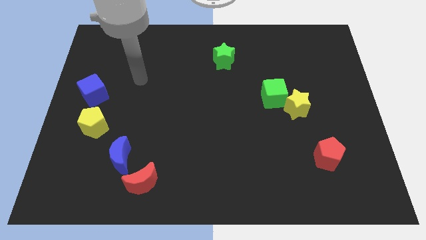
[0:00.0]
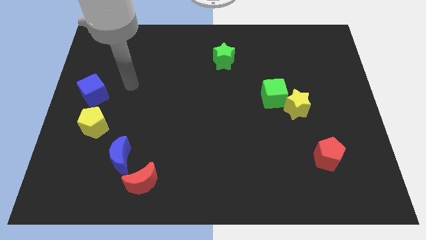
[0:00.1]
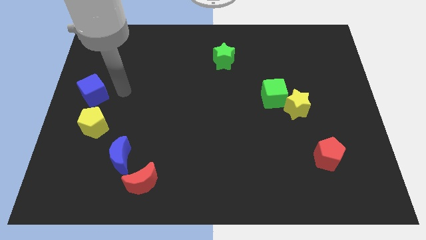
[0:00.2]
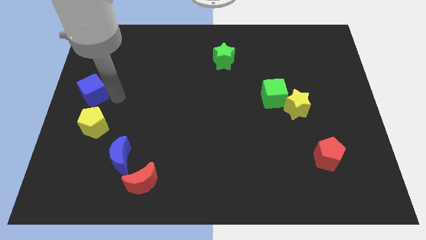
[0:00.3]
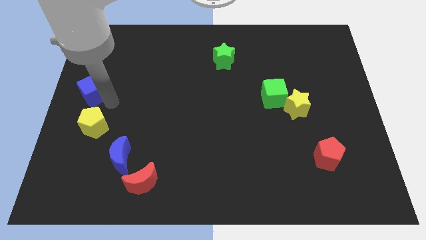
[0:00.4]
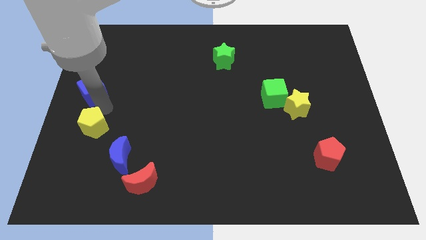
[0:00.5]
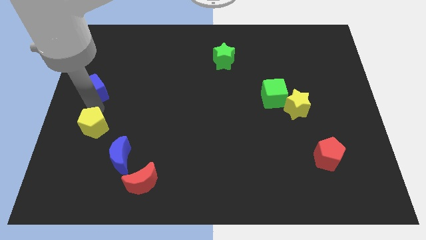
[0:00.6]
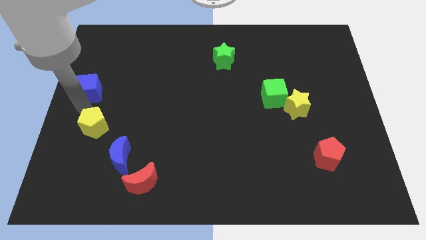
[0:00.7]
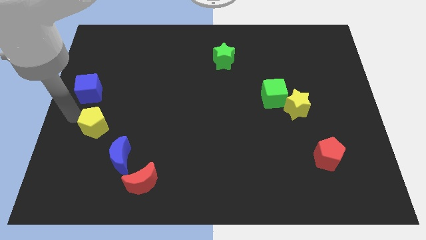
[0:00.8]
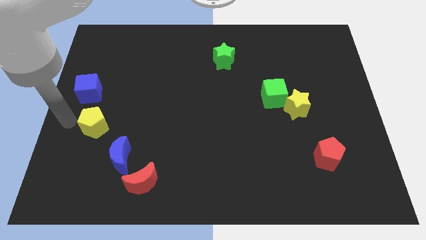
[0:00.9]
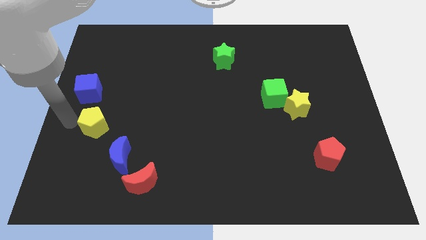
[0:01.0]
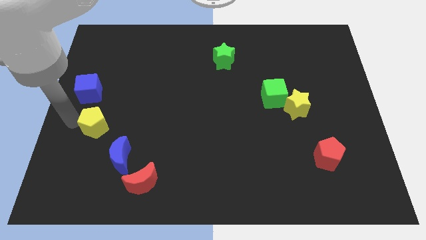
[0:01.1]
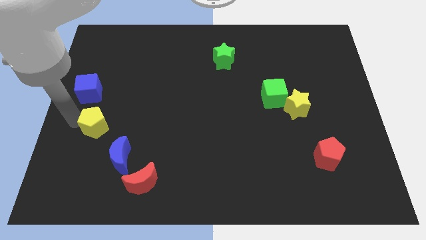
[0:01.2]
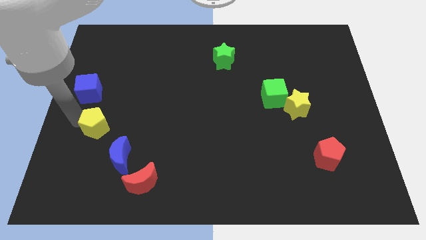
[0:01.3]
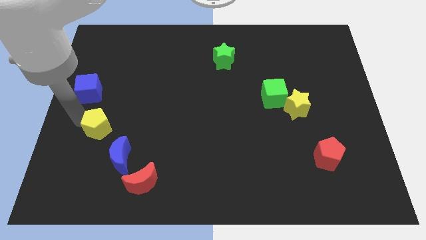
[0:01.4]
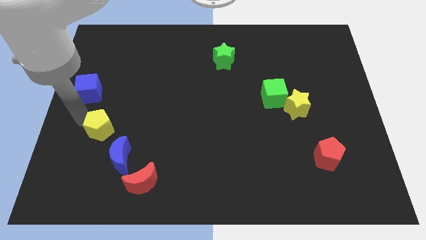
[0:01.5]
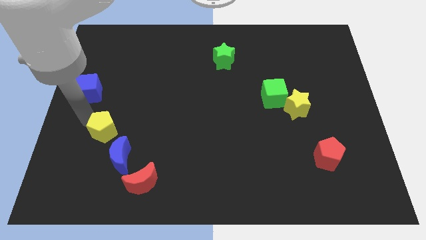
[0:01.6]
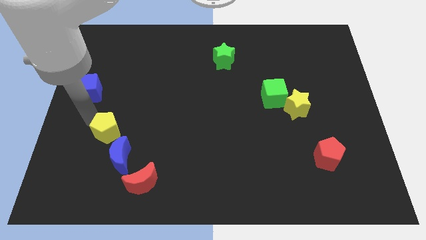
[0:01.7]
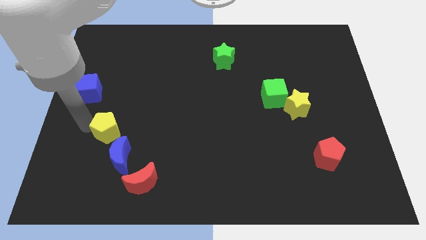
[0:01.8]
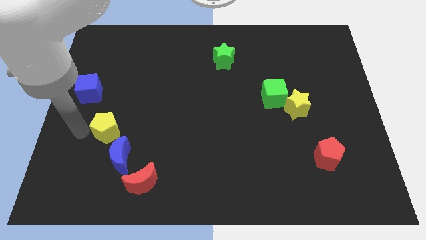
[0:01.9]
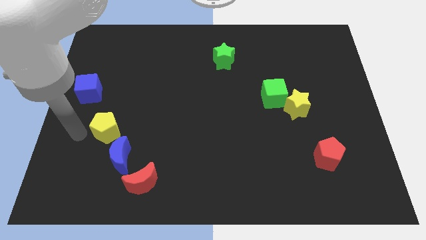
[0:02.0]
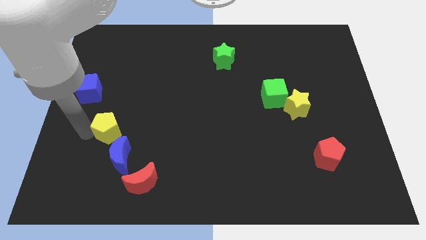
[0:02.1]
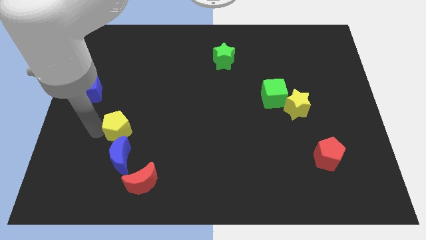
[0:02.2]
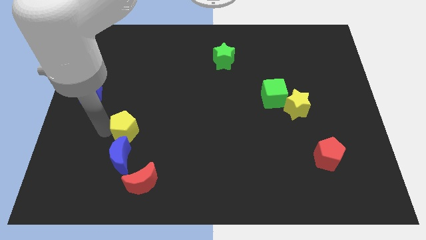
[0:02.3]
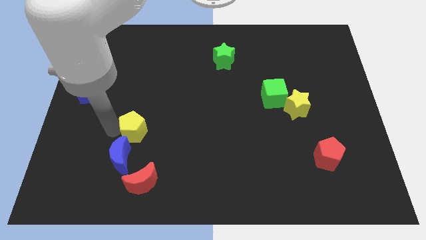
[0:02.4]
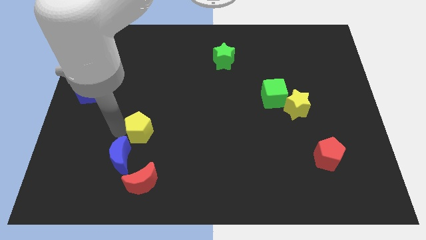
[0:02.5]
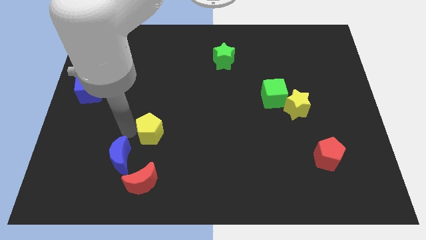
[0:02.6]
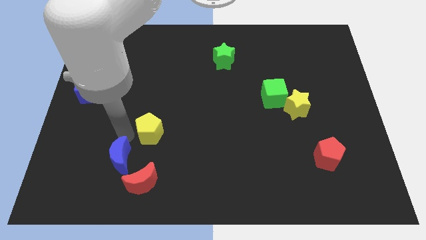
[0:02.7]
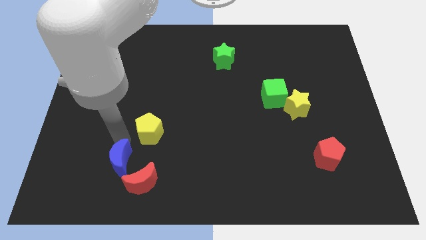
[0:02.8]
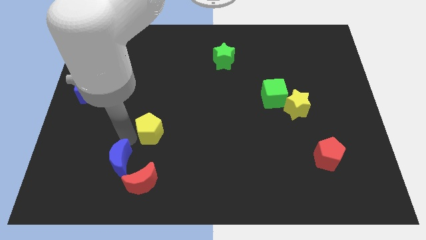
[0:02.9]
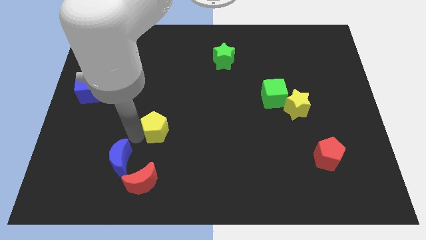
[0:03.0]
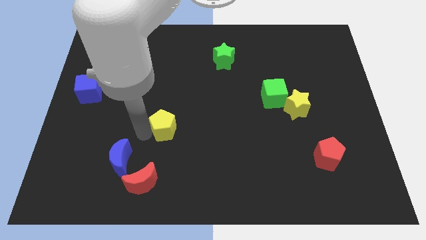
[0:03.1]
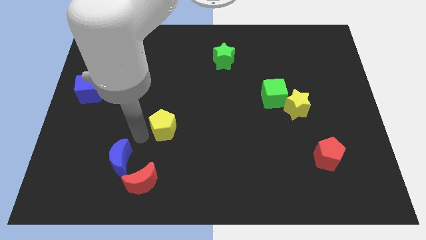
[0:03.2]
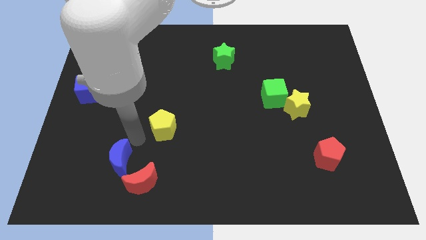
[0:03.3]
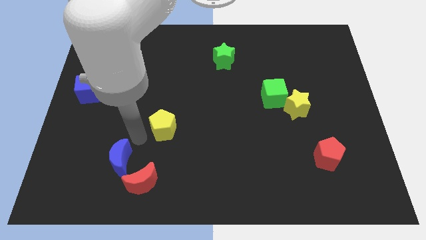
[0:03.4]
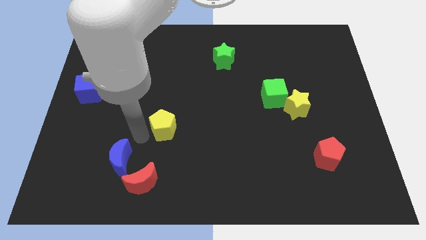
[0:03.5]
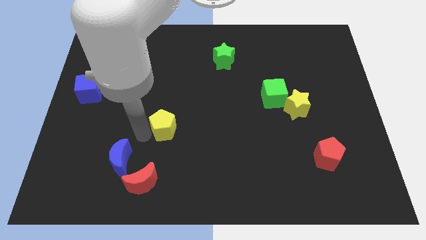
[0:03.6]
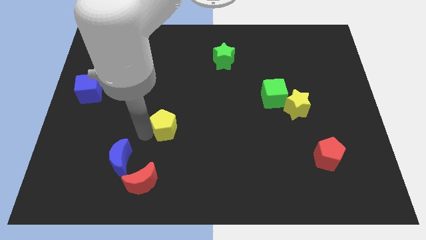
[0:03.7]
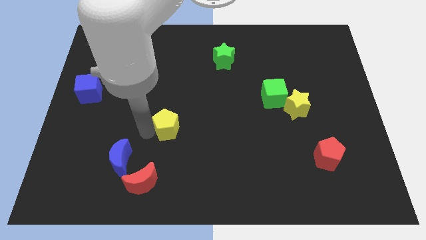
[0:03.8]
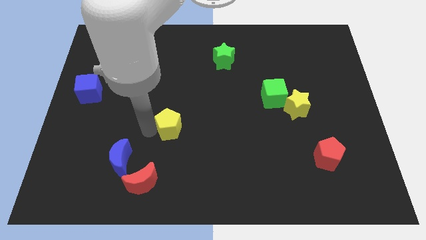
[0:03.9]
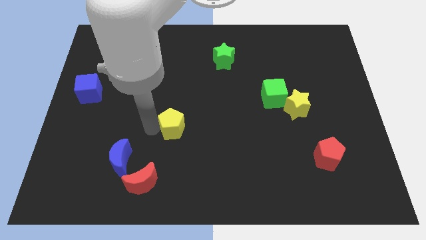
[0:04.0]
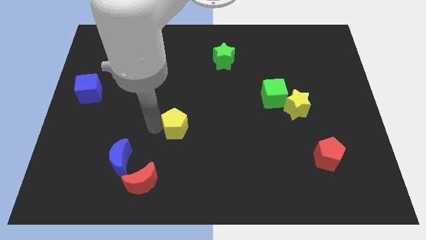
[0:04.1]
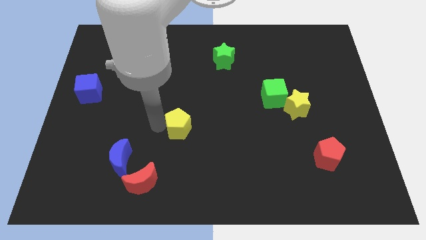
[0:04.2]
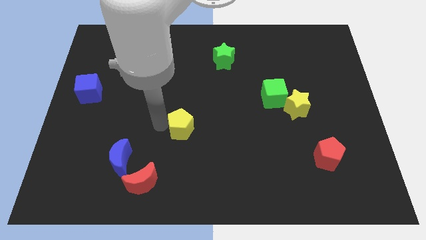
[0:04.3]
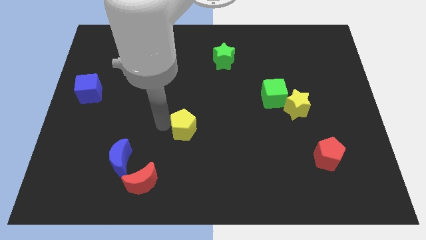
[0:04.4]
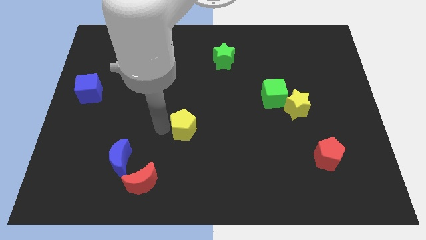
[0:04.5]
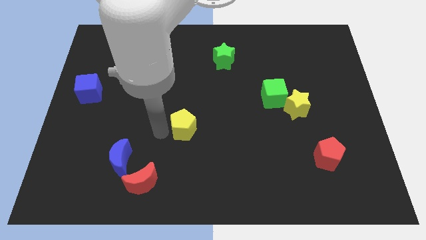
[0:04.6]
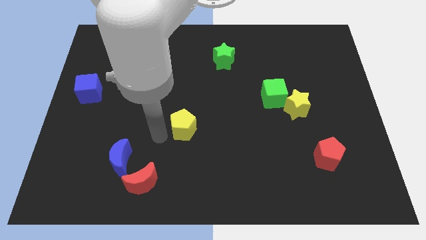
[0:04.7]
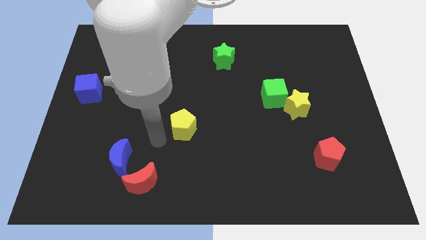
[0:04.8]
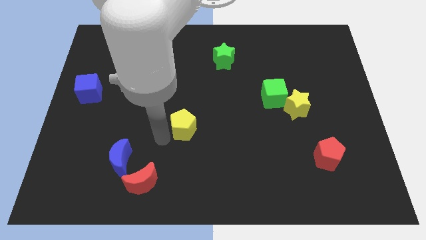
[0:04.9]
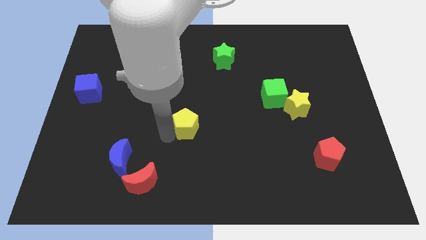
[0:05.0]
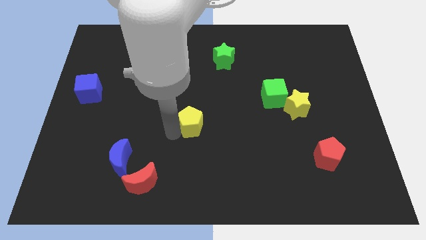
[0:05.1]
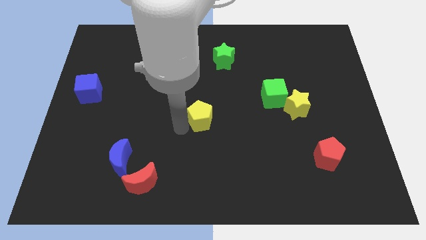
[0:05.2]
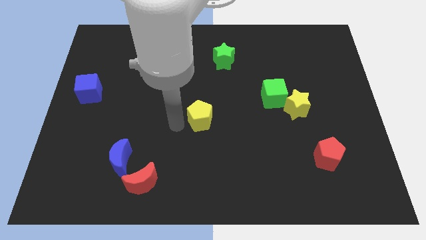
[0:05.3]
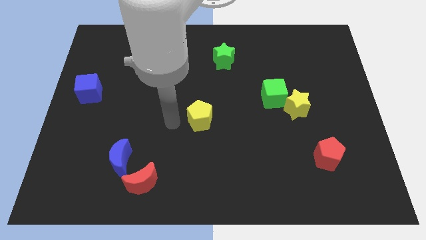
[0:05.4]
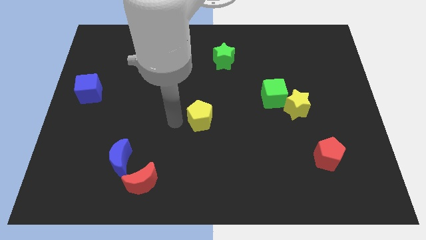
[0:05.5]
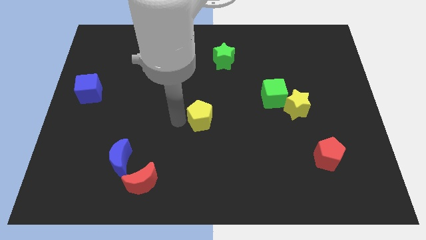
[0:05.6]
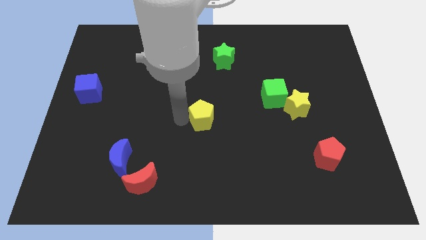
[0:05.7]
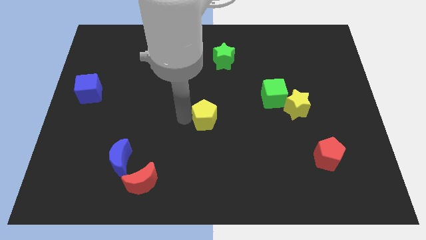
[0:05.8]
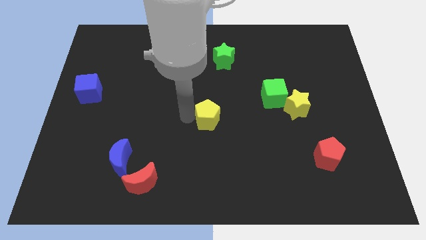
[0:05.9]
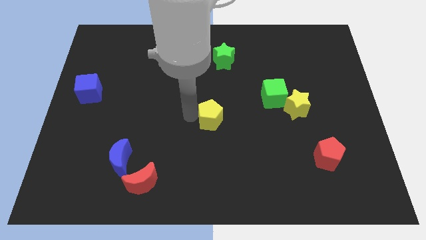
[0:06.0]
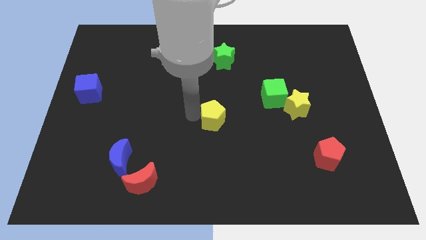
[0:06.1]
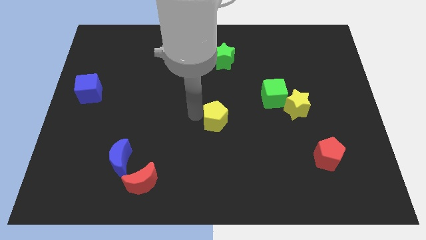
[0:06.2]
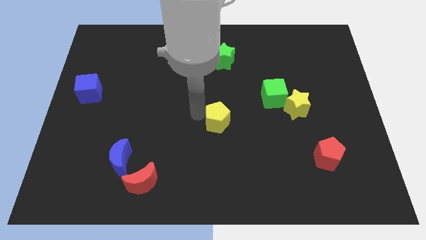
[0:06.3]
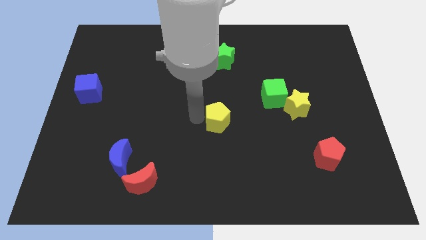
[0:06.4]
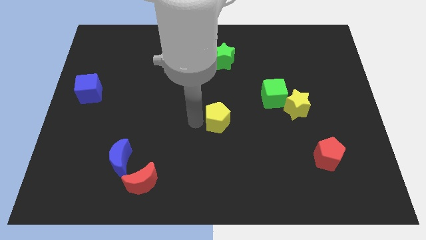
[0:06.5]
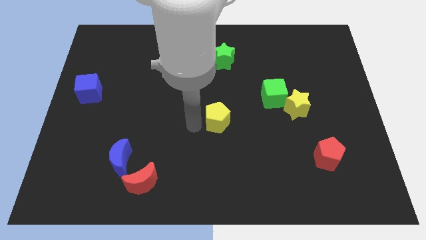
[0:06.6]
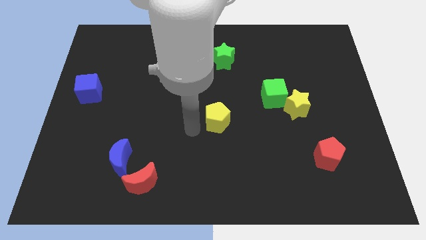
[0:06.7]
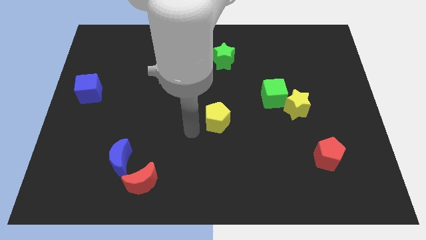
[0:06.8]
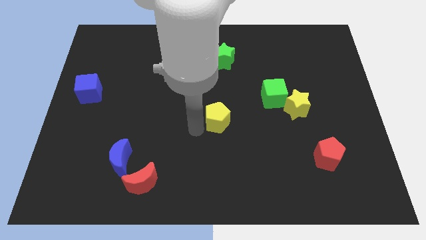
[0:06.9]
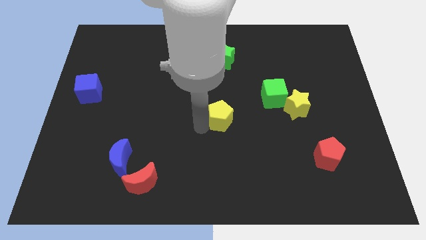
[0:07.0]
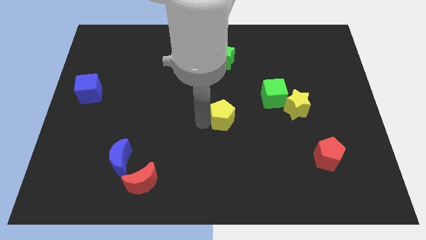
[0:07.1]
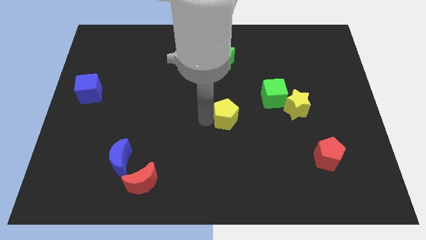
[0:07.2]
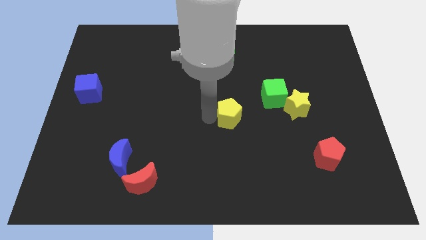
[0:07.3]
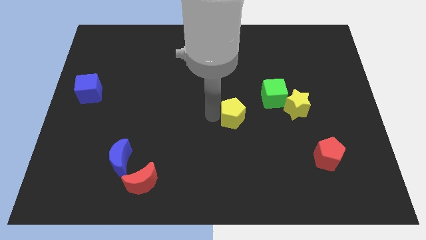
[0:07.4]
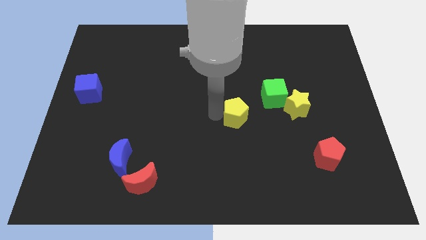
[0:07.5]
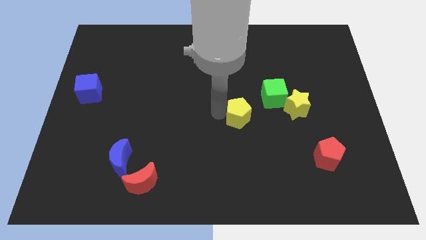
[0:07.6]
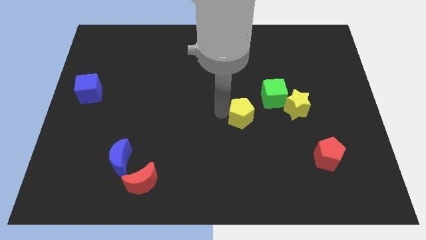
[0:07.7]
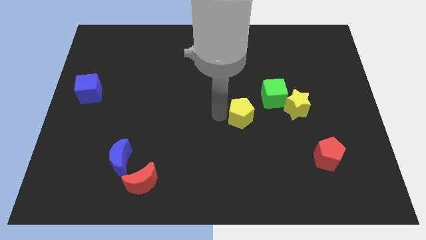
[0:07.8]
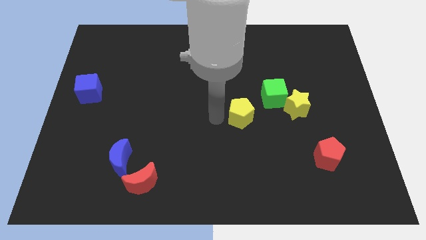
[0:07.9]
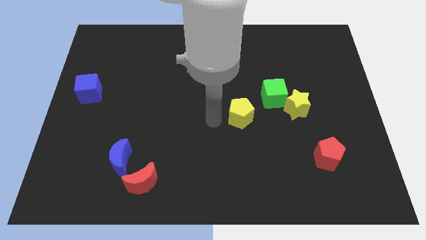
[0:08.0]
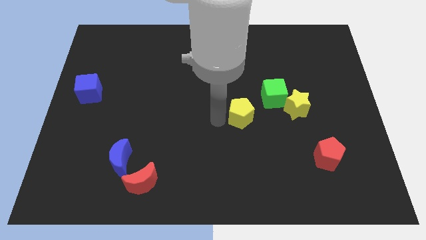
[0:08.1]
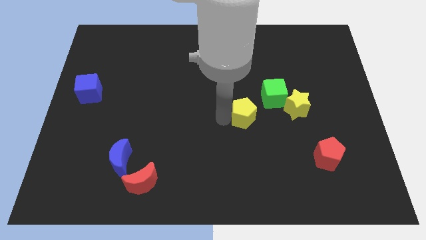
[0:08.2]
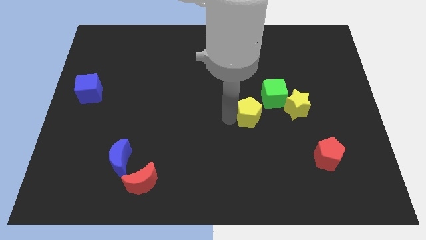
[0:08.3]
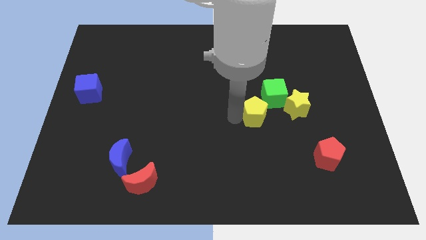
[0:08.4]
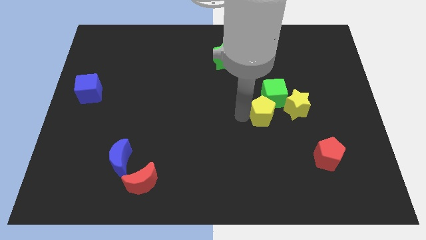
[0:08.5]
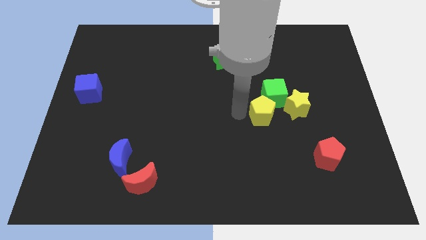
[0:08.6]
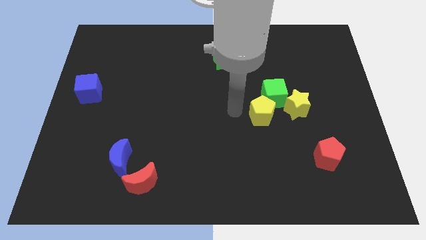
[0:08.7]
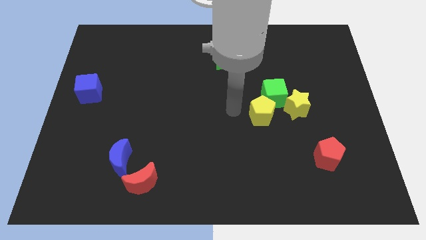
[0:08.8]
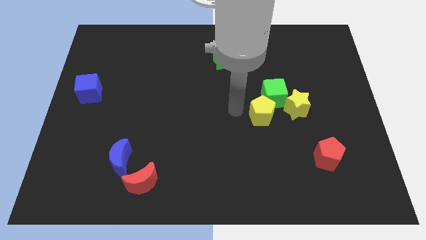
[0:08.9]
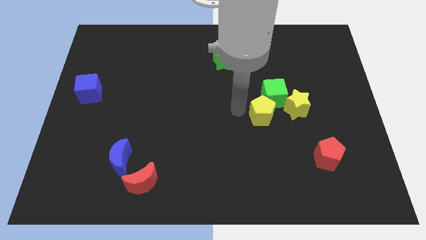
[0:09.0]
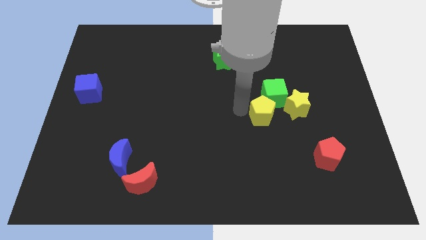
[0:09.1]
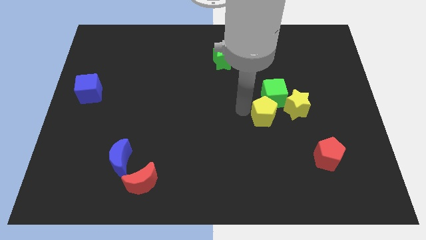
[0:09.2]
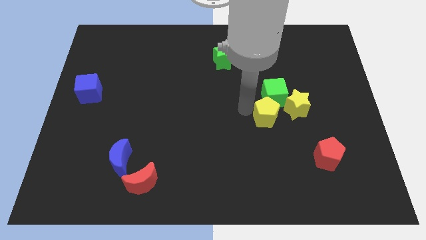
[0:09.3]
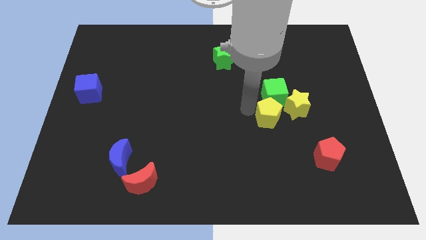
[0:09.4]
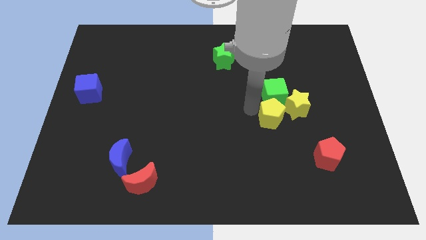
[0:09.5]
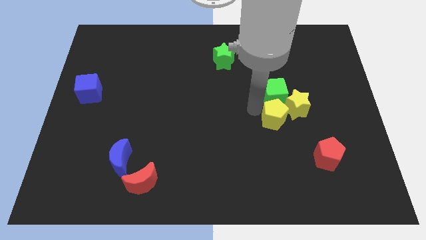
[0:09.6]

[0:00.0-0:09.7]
put the yellow pentagon towards the yellow star
